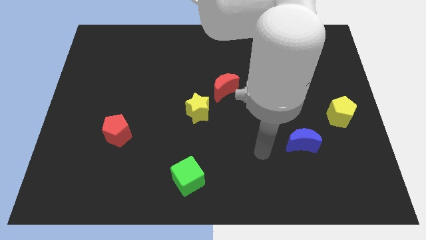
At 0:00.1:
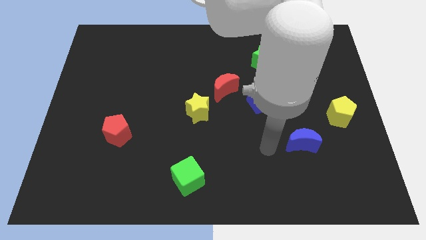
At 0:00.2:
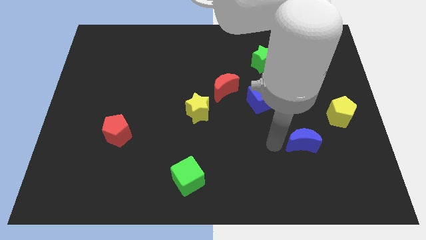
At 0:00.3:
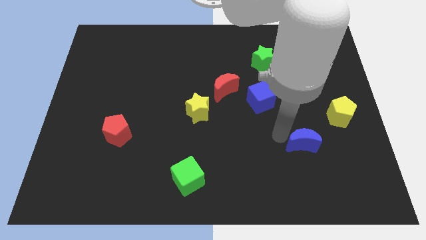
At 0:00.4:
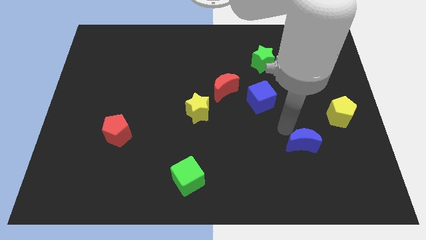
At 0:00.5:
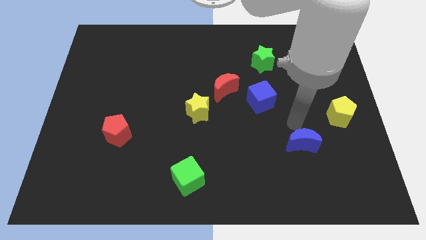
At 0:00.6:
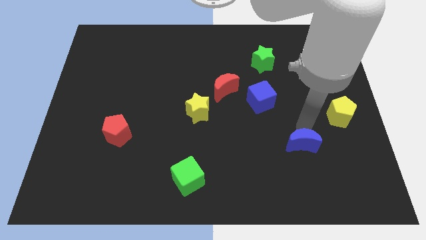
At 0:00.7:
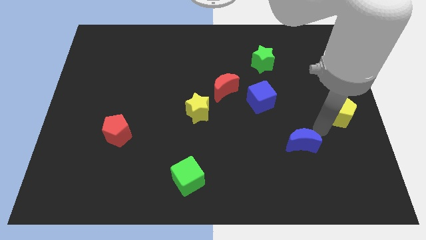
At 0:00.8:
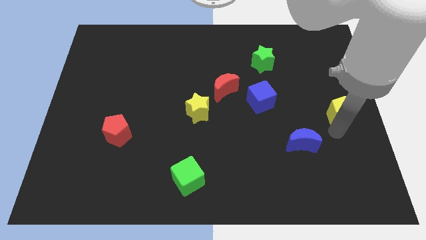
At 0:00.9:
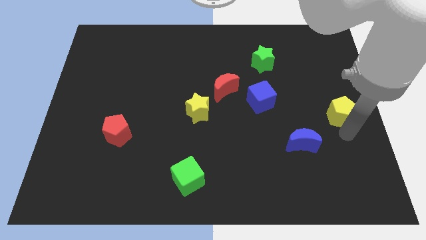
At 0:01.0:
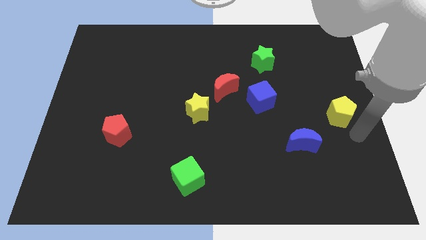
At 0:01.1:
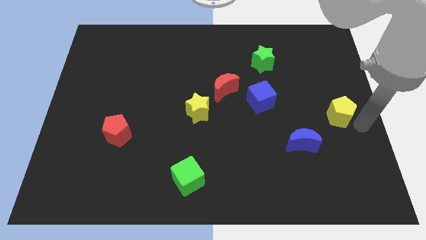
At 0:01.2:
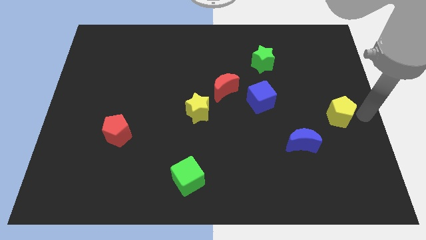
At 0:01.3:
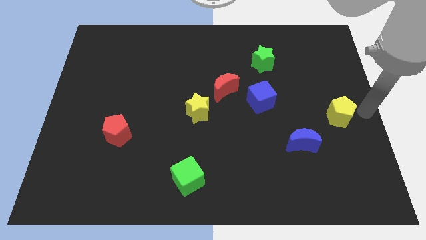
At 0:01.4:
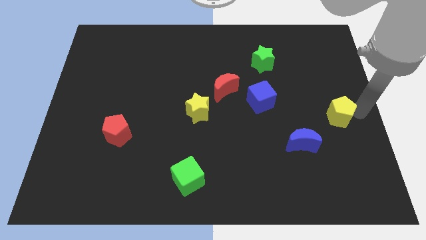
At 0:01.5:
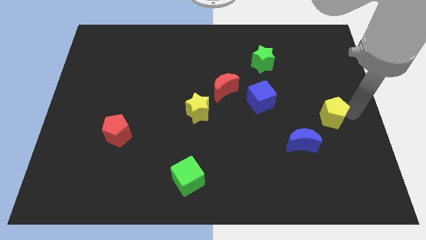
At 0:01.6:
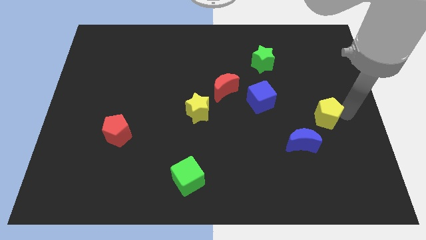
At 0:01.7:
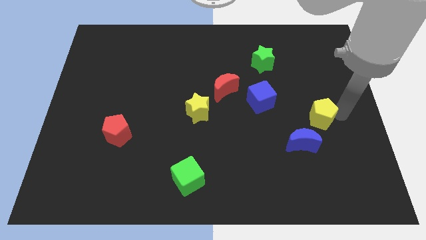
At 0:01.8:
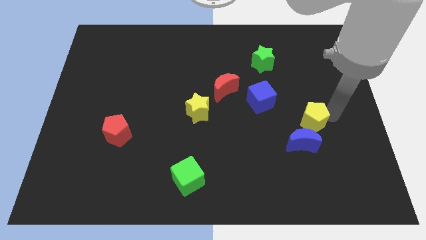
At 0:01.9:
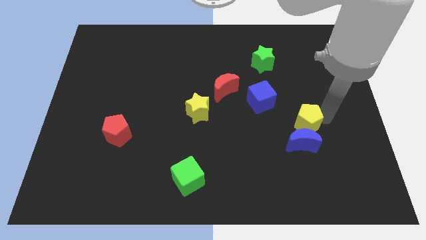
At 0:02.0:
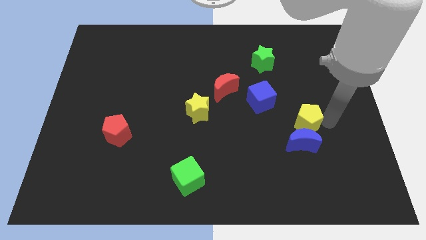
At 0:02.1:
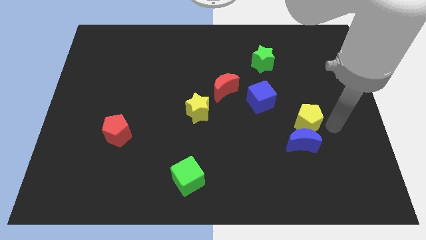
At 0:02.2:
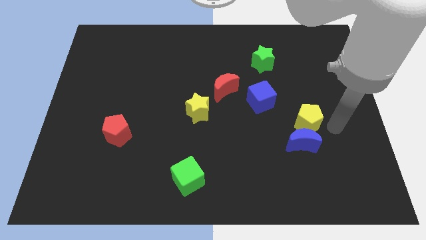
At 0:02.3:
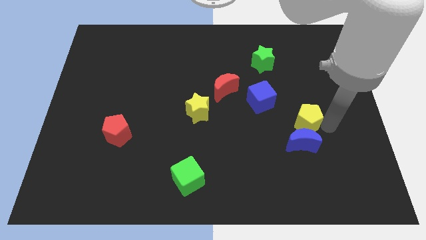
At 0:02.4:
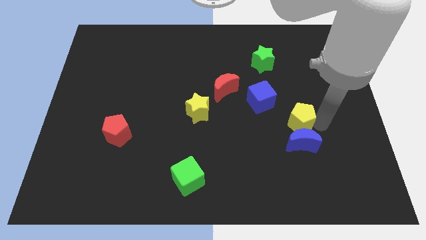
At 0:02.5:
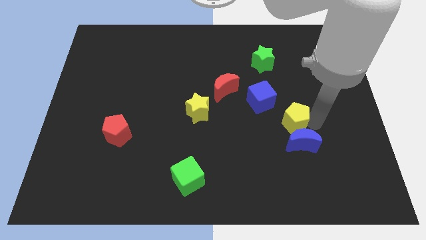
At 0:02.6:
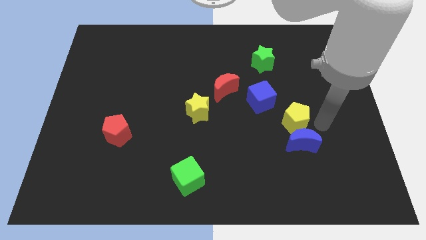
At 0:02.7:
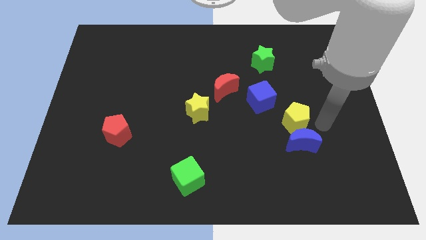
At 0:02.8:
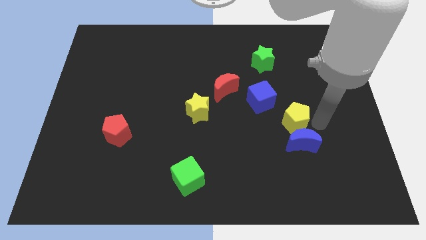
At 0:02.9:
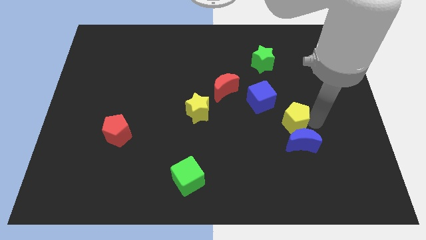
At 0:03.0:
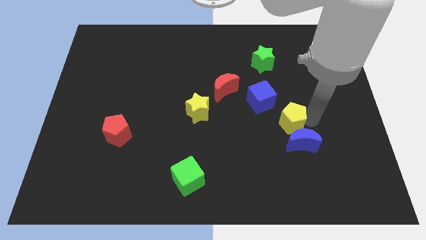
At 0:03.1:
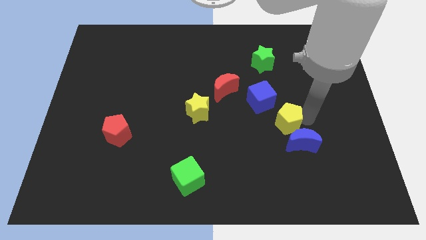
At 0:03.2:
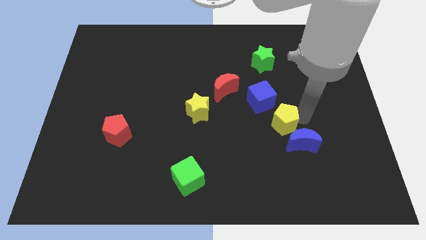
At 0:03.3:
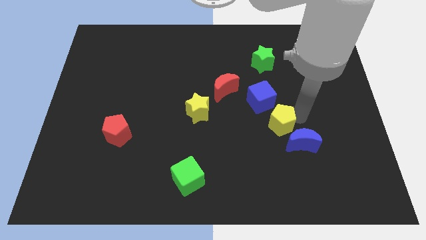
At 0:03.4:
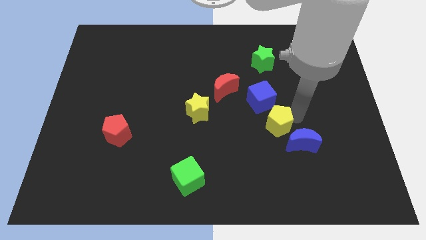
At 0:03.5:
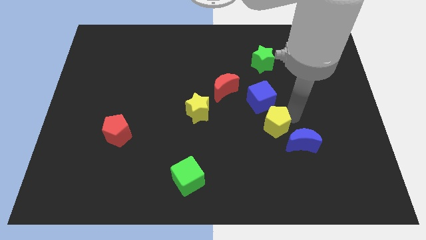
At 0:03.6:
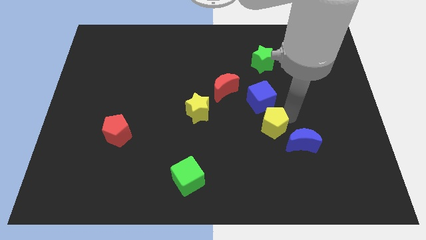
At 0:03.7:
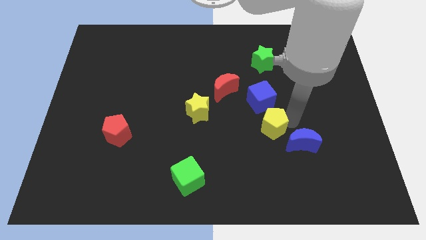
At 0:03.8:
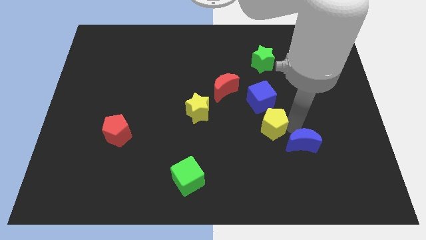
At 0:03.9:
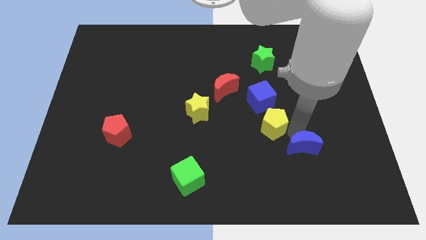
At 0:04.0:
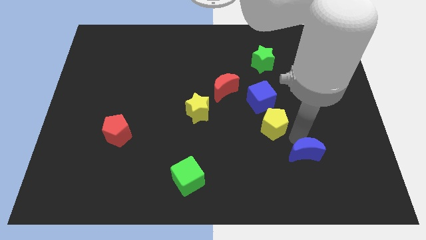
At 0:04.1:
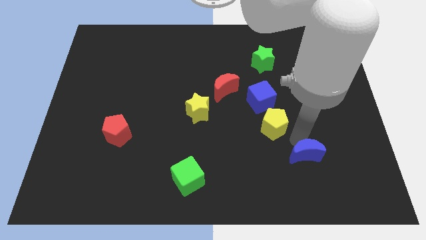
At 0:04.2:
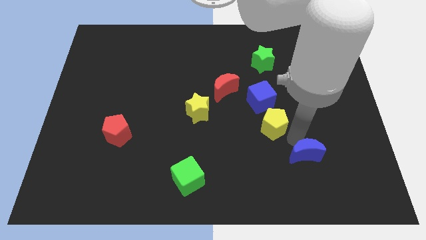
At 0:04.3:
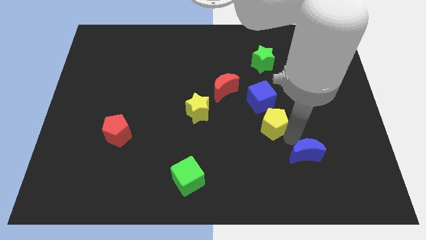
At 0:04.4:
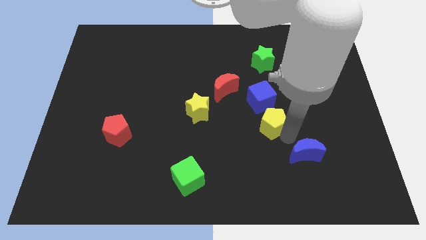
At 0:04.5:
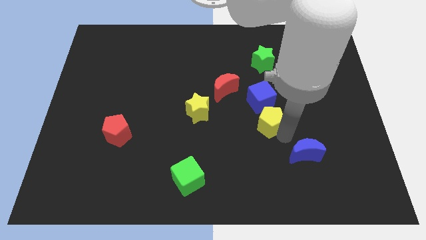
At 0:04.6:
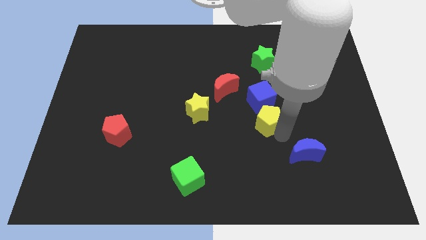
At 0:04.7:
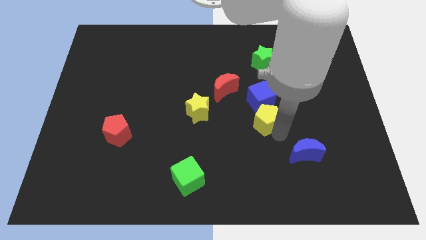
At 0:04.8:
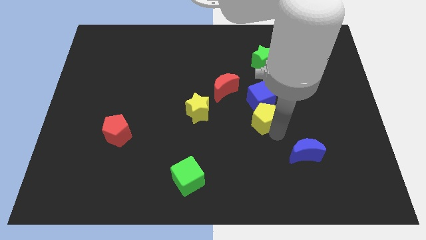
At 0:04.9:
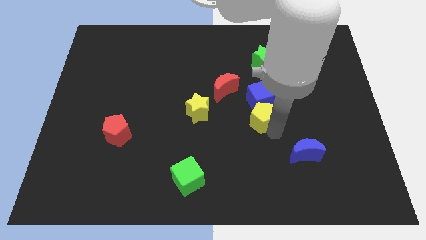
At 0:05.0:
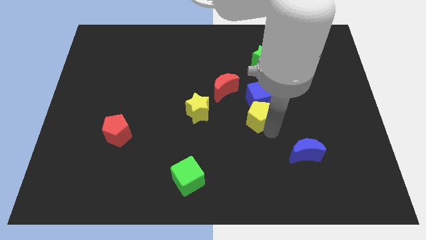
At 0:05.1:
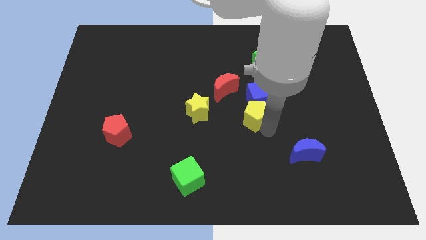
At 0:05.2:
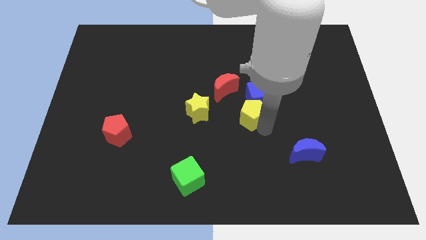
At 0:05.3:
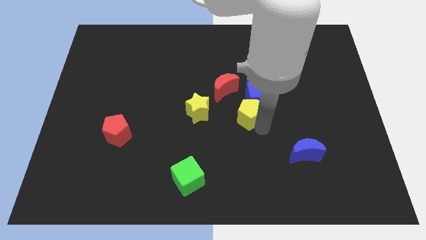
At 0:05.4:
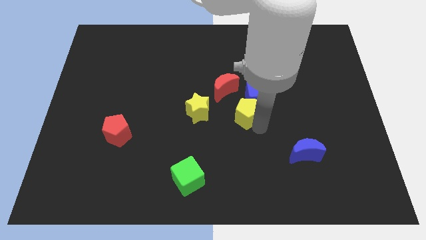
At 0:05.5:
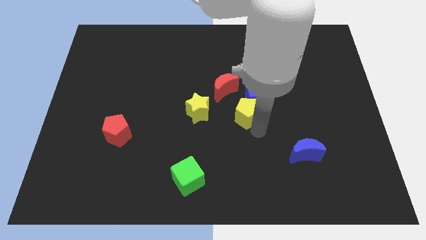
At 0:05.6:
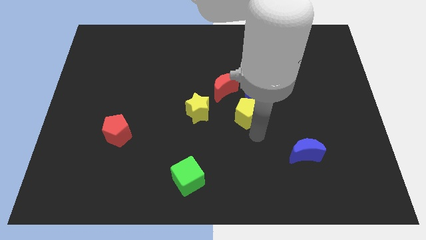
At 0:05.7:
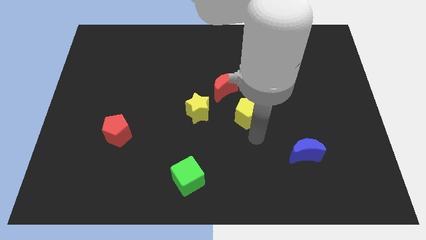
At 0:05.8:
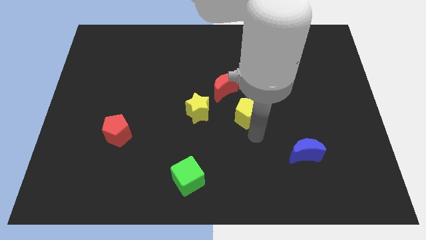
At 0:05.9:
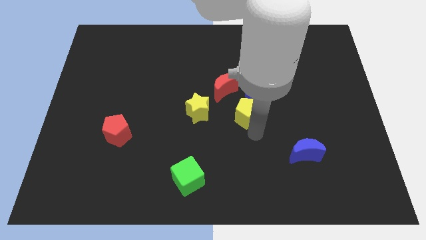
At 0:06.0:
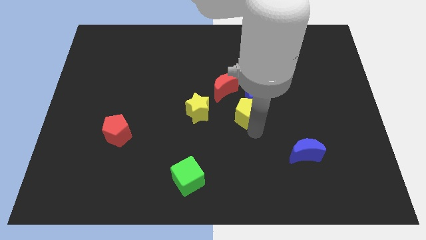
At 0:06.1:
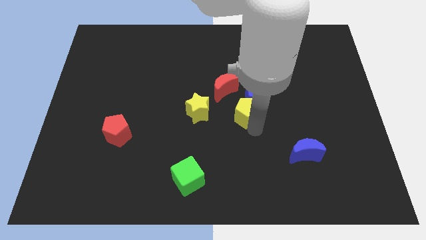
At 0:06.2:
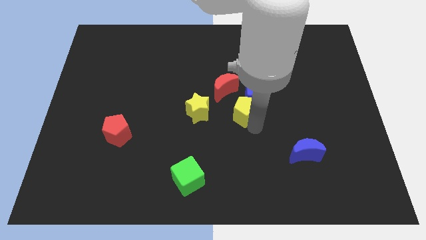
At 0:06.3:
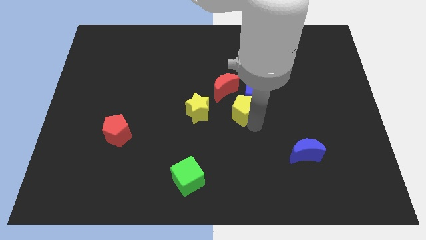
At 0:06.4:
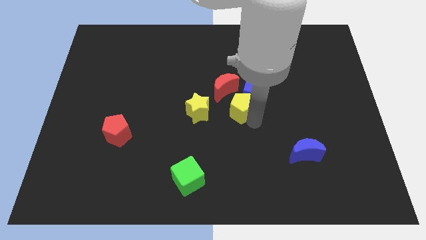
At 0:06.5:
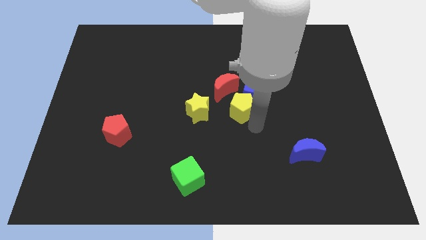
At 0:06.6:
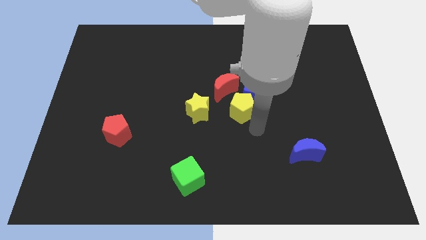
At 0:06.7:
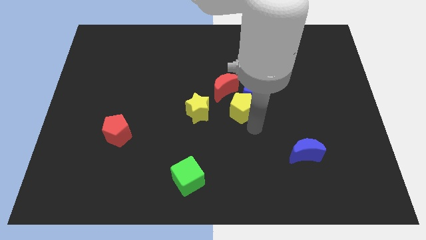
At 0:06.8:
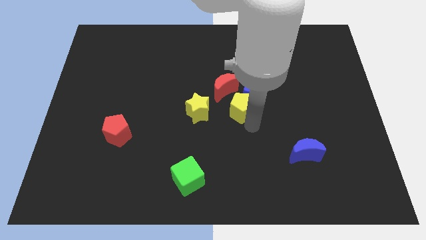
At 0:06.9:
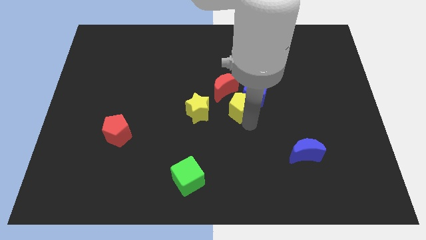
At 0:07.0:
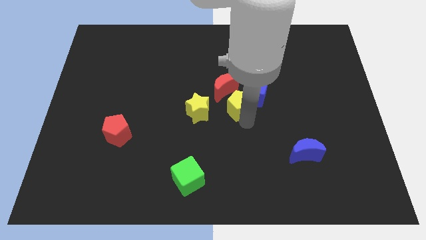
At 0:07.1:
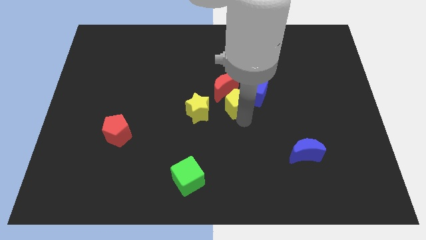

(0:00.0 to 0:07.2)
move the yellow pentagon towards the red moon

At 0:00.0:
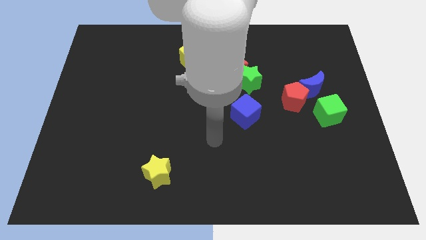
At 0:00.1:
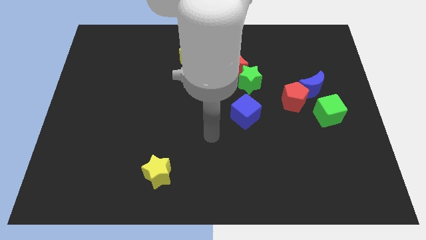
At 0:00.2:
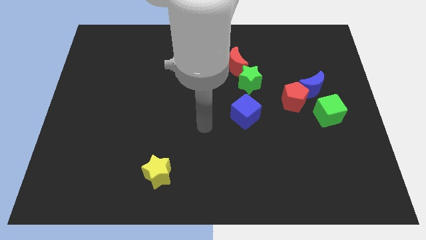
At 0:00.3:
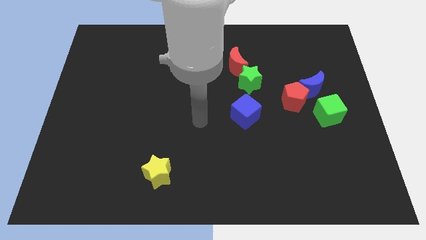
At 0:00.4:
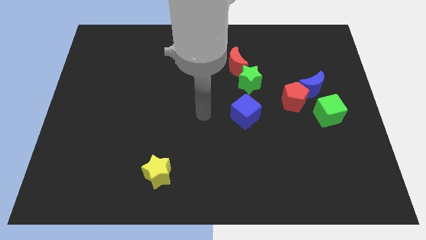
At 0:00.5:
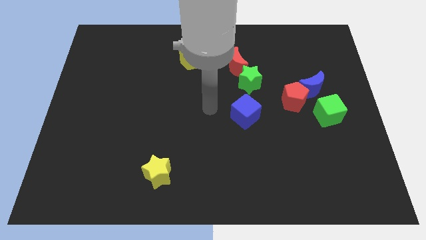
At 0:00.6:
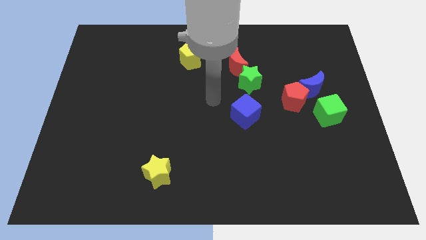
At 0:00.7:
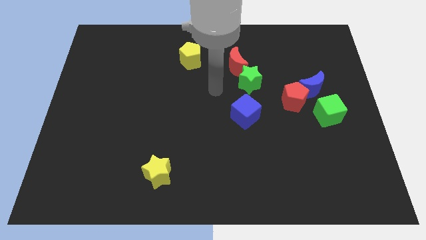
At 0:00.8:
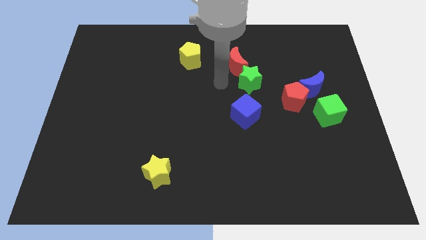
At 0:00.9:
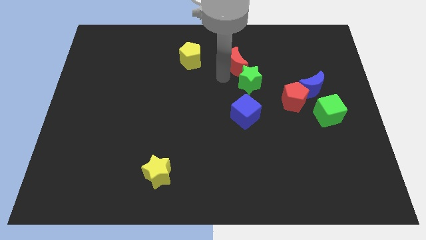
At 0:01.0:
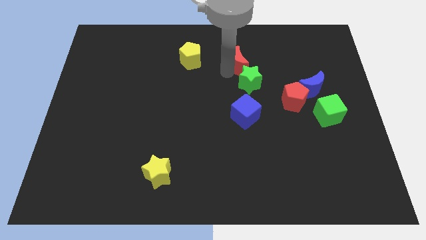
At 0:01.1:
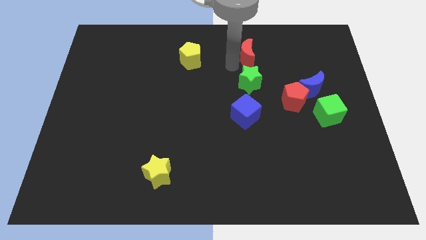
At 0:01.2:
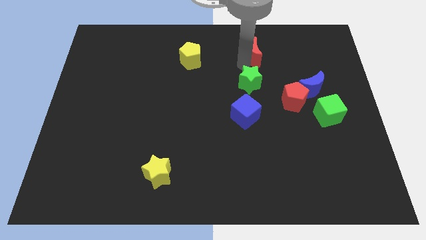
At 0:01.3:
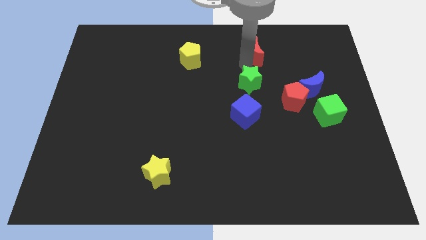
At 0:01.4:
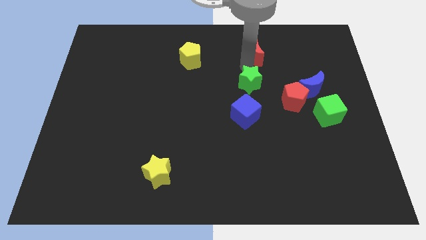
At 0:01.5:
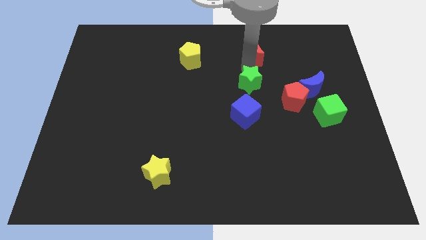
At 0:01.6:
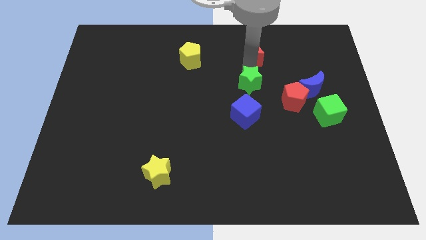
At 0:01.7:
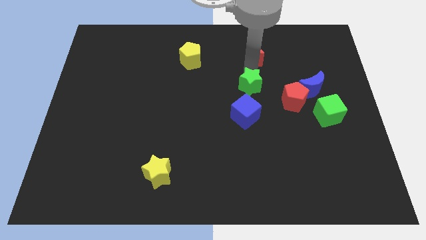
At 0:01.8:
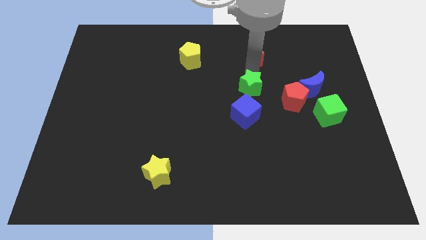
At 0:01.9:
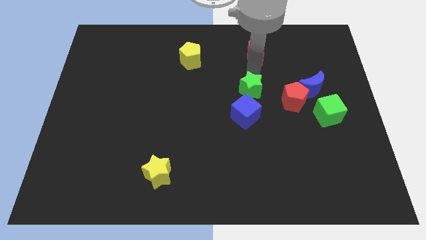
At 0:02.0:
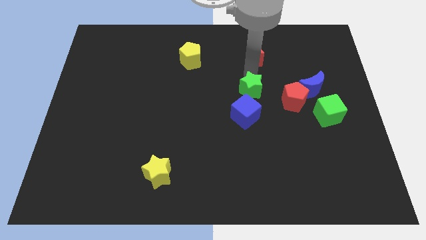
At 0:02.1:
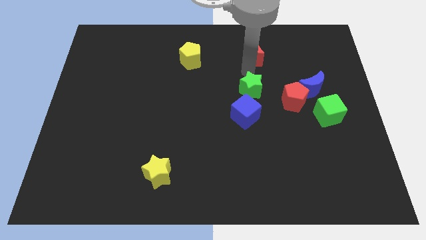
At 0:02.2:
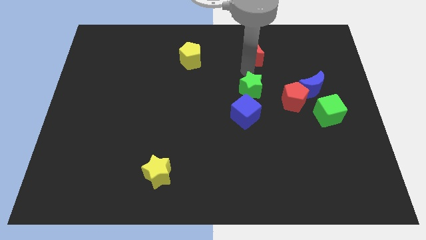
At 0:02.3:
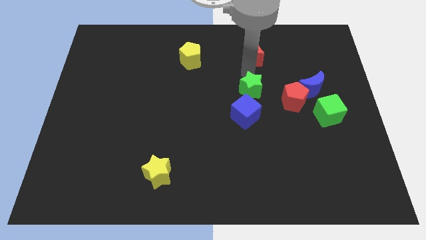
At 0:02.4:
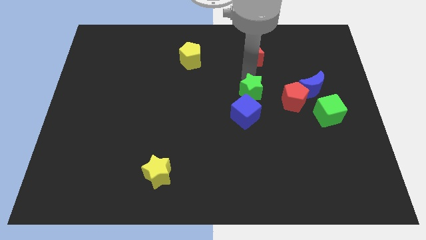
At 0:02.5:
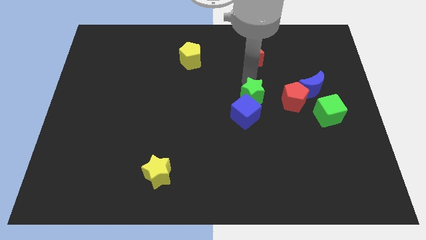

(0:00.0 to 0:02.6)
put the green star to the blue cube
